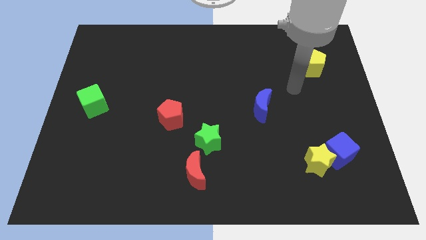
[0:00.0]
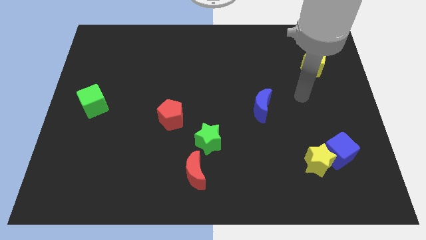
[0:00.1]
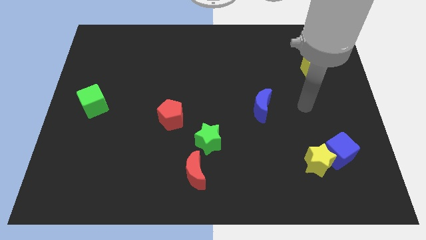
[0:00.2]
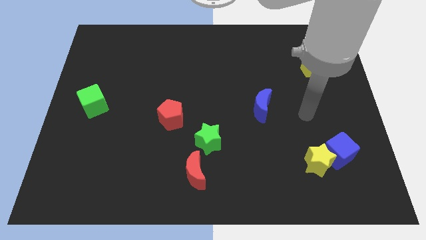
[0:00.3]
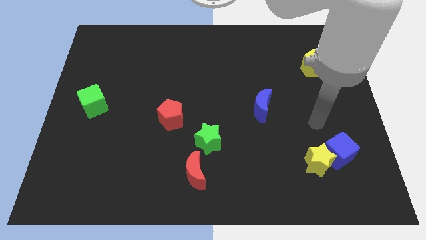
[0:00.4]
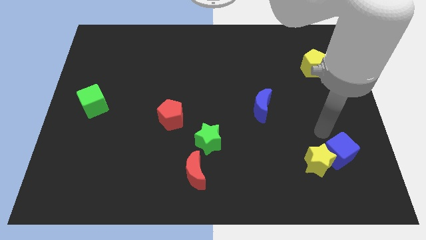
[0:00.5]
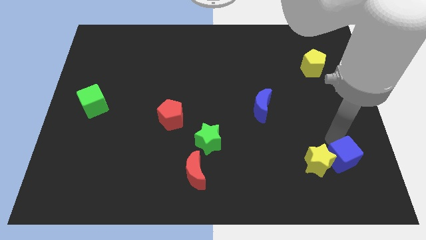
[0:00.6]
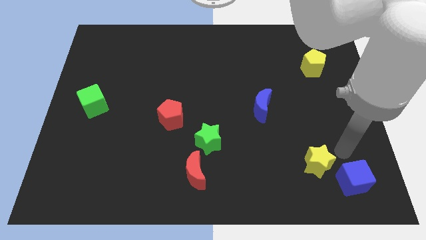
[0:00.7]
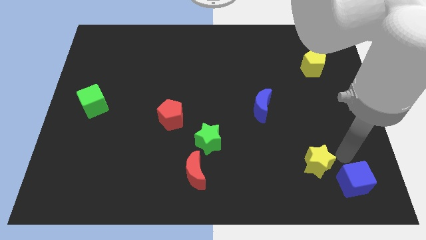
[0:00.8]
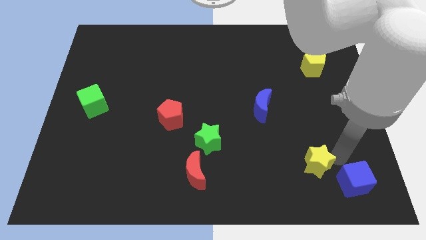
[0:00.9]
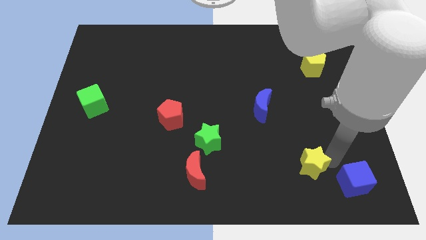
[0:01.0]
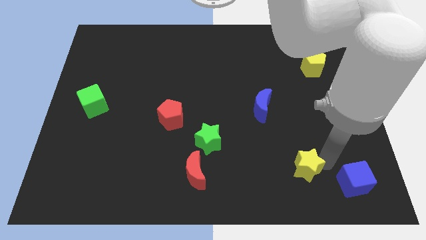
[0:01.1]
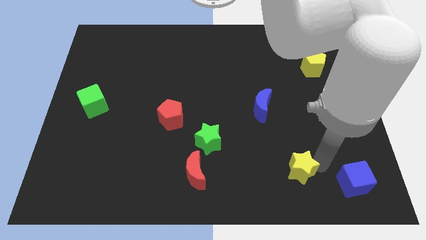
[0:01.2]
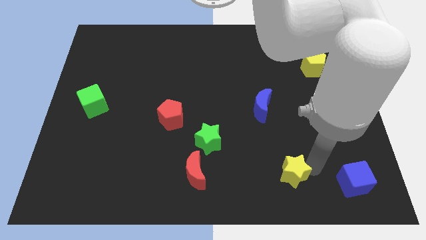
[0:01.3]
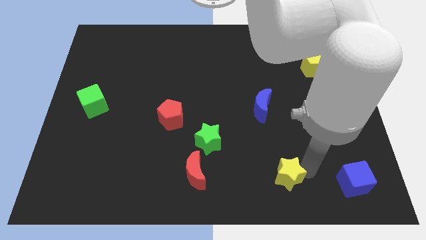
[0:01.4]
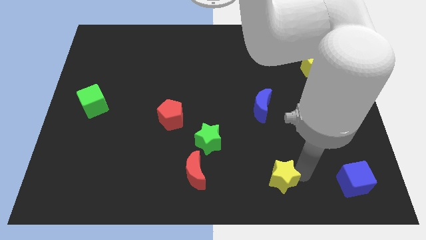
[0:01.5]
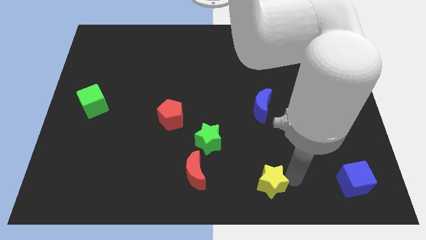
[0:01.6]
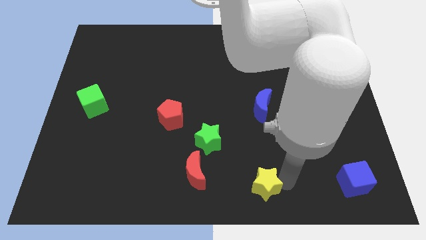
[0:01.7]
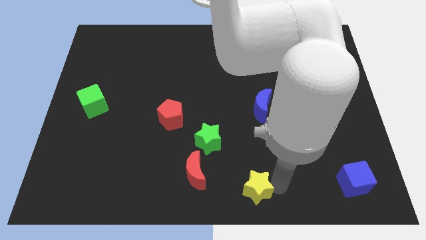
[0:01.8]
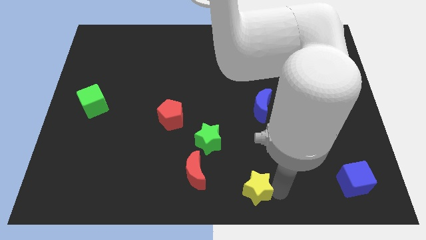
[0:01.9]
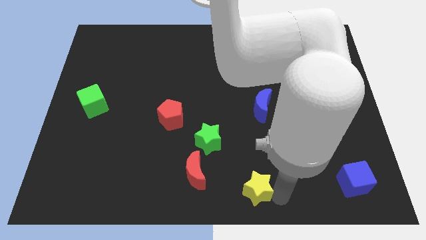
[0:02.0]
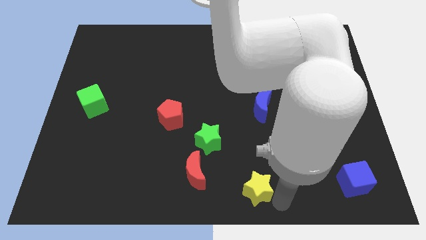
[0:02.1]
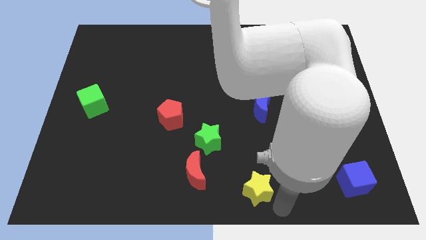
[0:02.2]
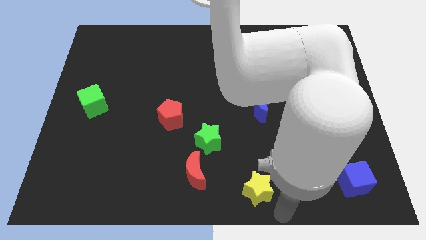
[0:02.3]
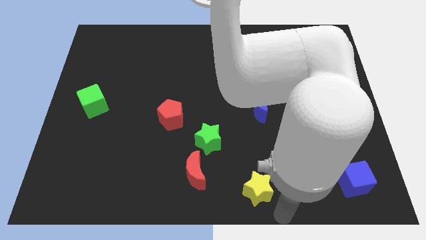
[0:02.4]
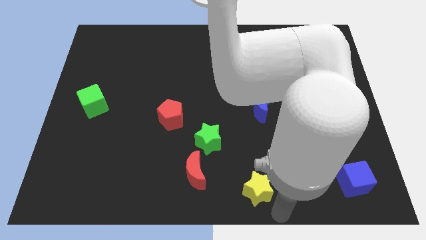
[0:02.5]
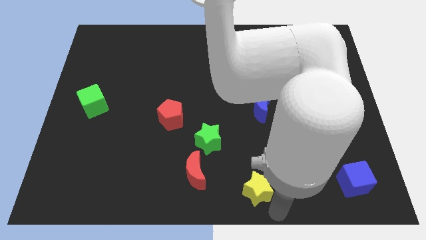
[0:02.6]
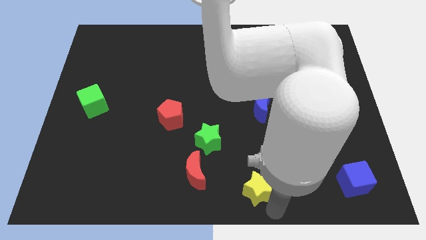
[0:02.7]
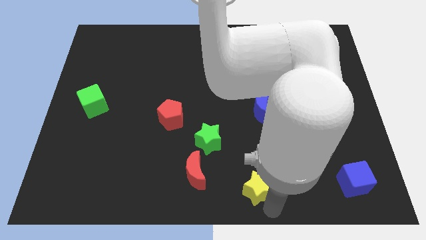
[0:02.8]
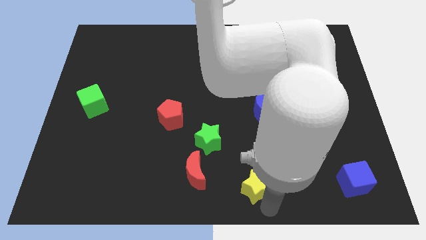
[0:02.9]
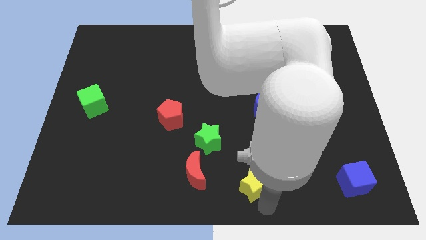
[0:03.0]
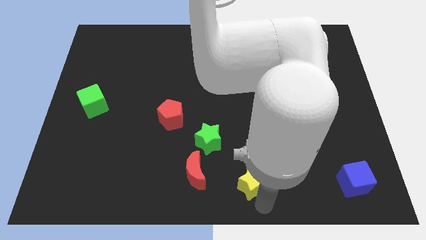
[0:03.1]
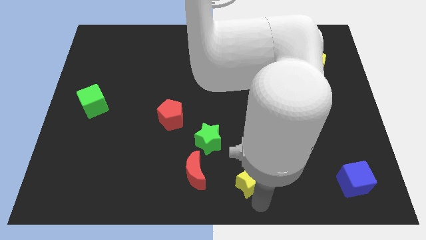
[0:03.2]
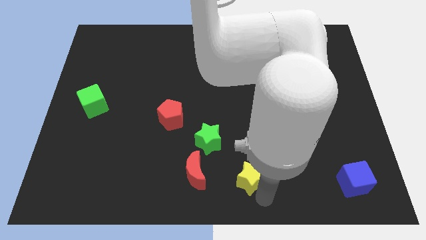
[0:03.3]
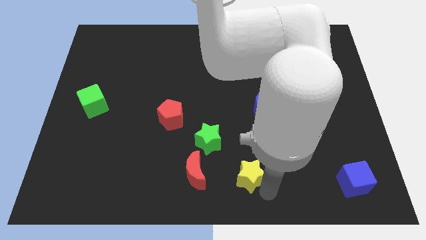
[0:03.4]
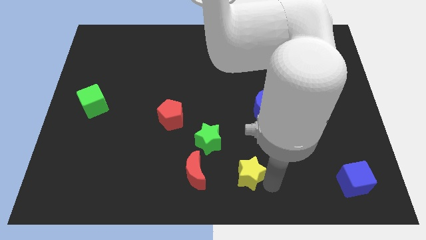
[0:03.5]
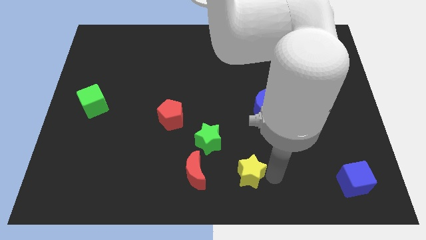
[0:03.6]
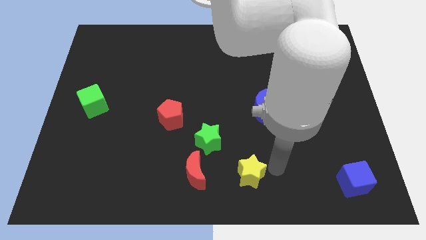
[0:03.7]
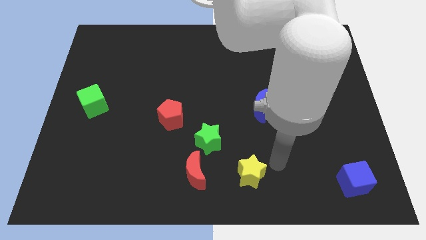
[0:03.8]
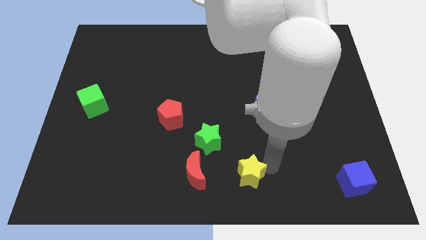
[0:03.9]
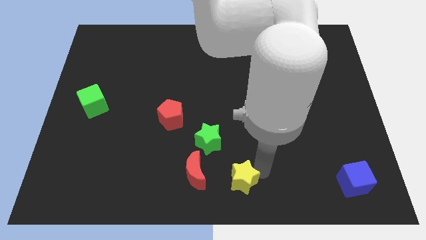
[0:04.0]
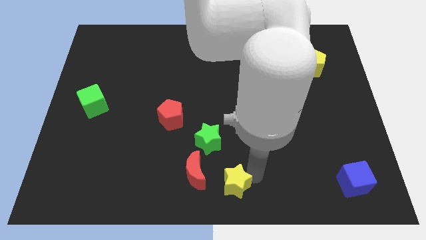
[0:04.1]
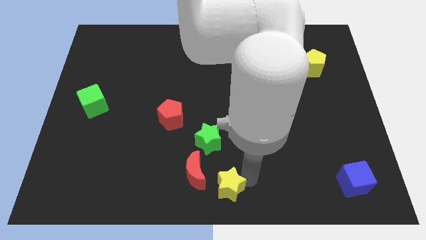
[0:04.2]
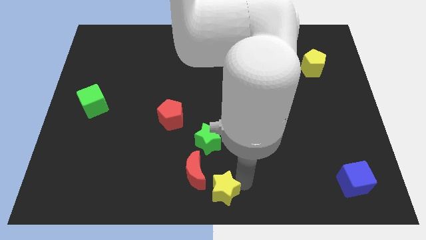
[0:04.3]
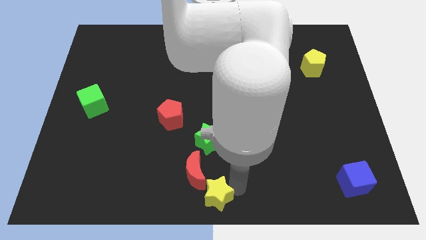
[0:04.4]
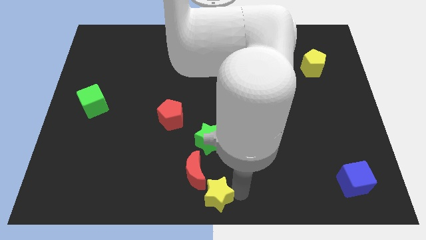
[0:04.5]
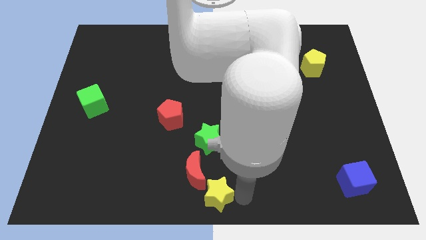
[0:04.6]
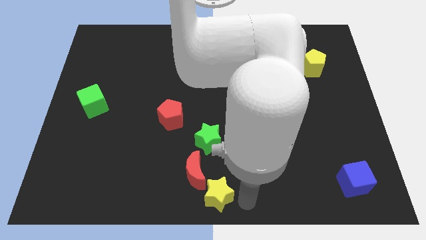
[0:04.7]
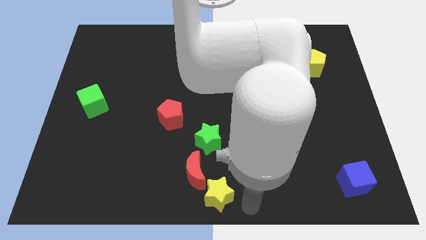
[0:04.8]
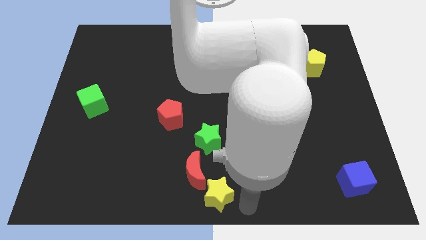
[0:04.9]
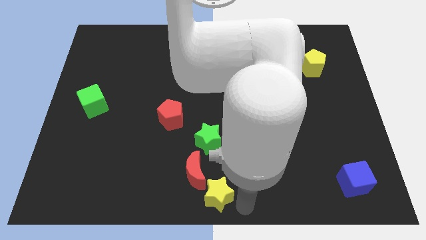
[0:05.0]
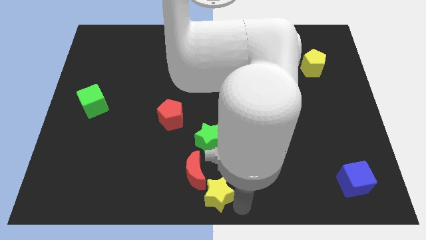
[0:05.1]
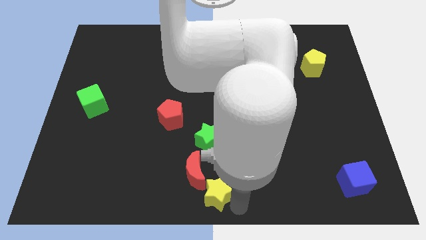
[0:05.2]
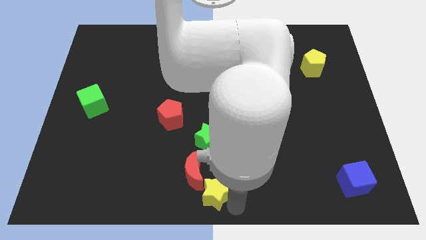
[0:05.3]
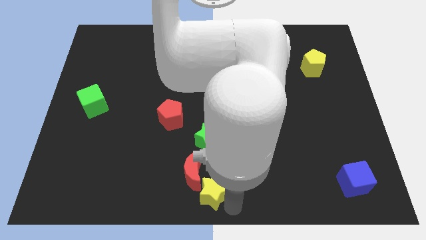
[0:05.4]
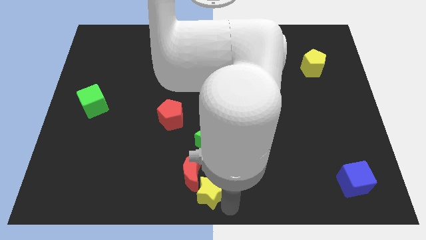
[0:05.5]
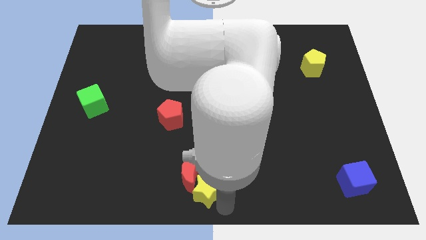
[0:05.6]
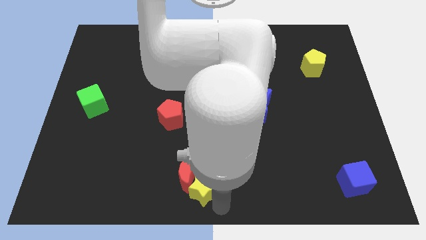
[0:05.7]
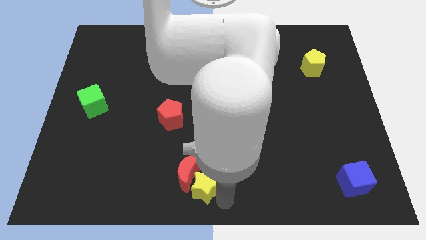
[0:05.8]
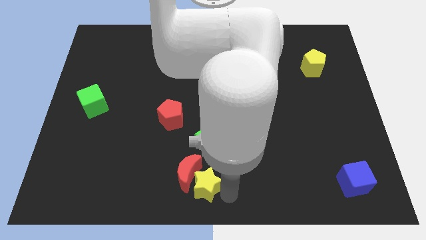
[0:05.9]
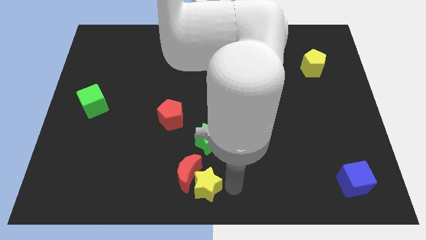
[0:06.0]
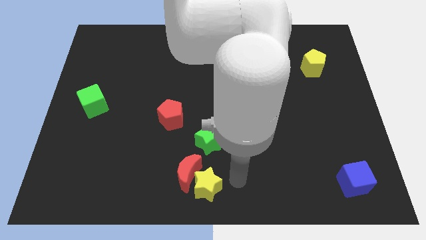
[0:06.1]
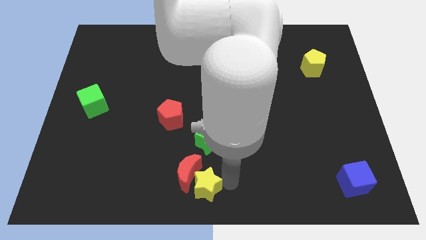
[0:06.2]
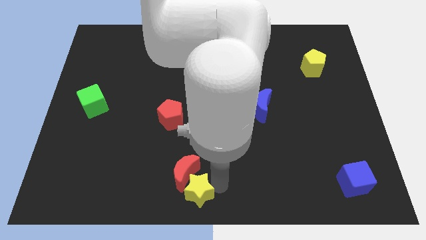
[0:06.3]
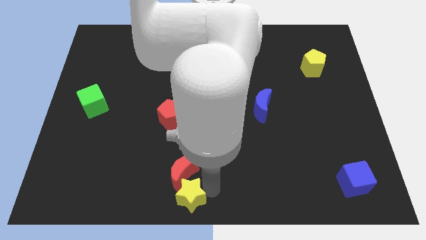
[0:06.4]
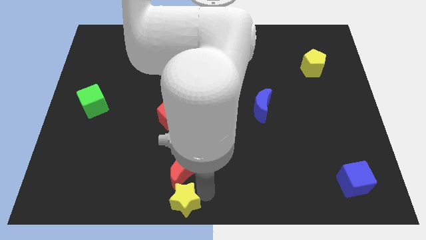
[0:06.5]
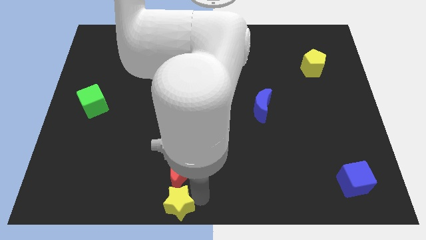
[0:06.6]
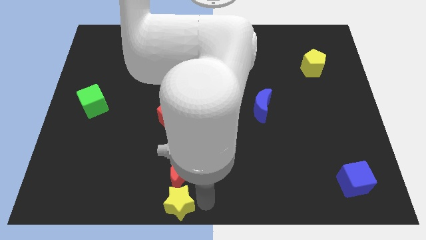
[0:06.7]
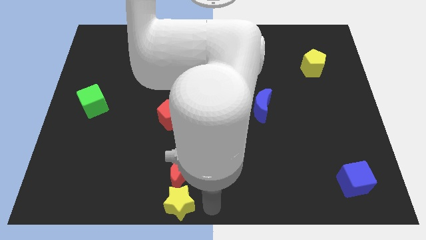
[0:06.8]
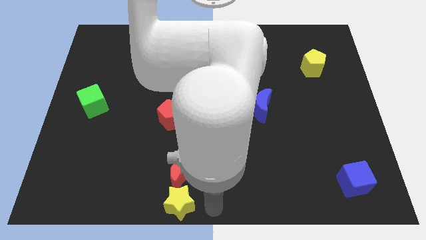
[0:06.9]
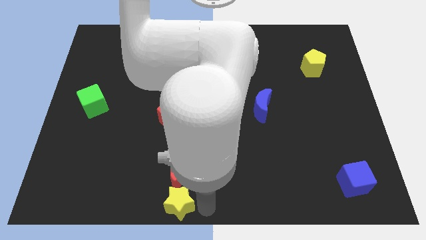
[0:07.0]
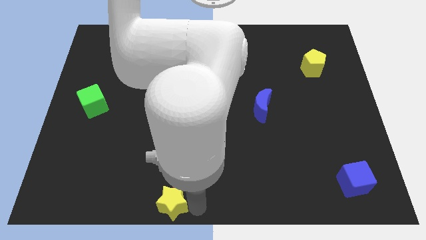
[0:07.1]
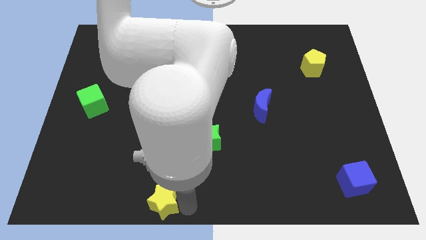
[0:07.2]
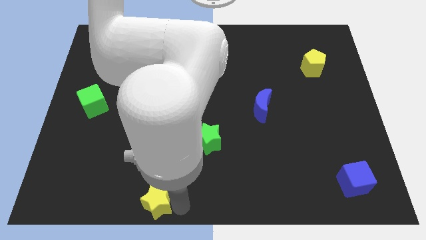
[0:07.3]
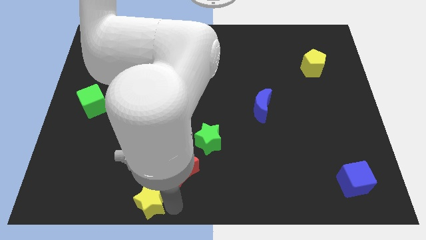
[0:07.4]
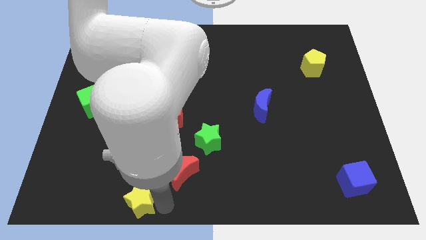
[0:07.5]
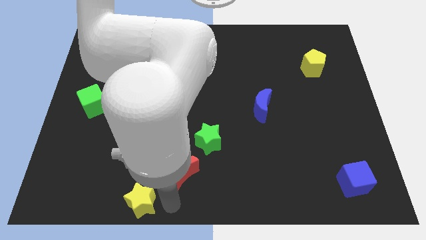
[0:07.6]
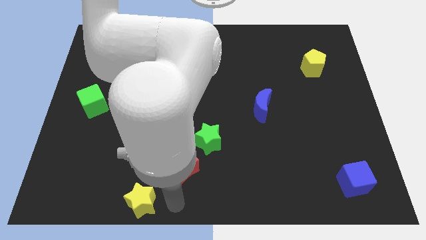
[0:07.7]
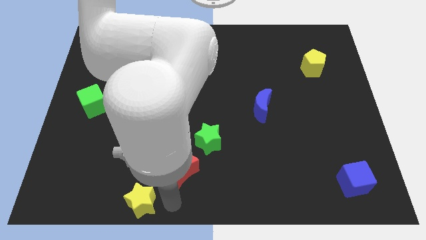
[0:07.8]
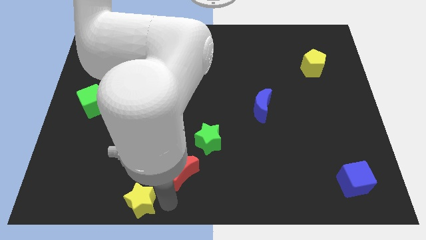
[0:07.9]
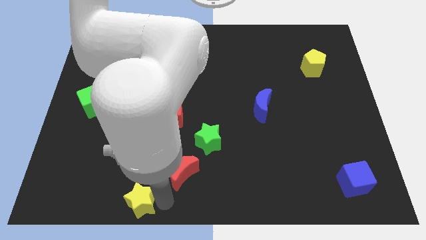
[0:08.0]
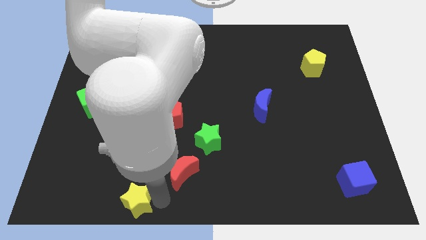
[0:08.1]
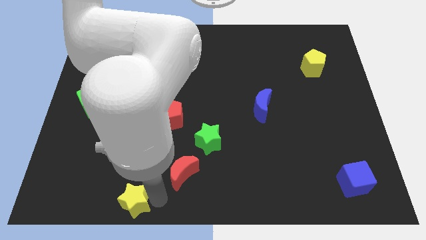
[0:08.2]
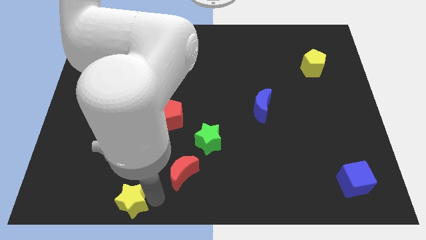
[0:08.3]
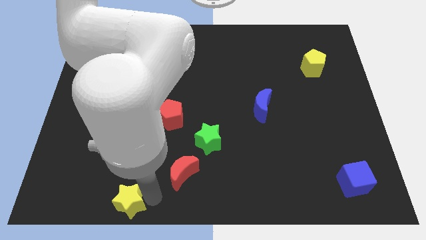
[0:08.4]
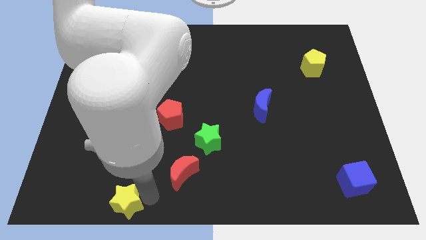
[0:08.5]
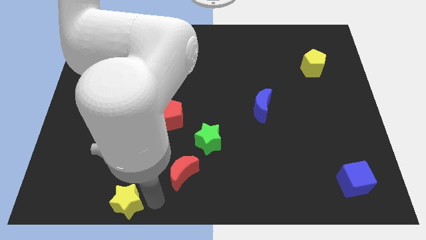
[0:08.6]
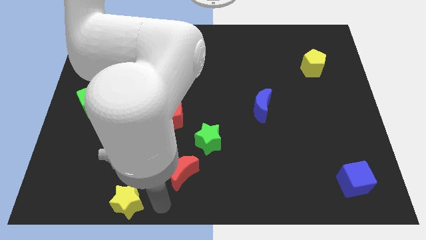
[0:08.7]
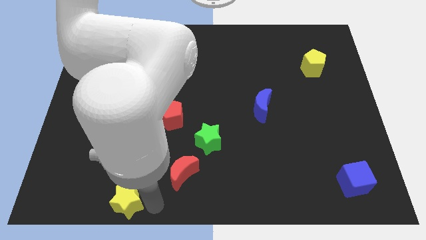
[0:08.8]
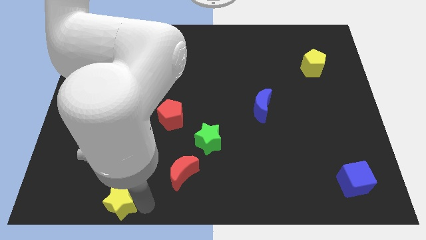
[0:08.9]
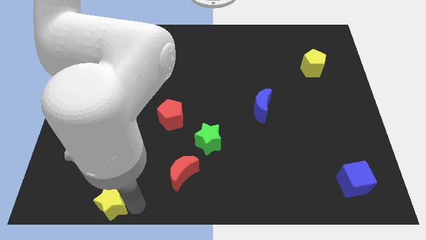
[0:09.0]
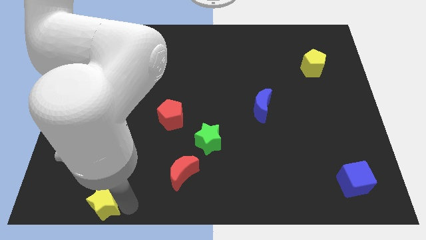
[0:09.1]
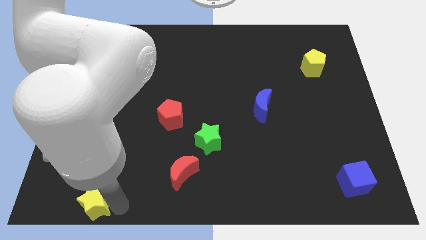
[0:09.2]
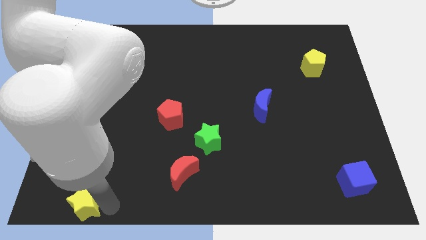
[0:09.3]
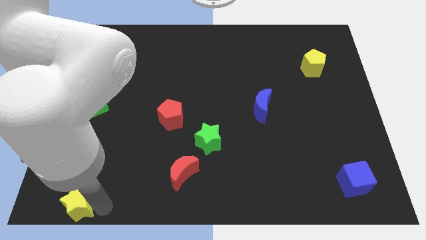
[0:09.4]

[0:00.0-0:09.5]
move the yellow star to the bottom left corner
